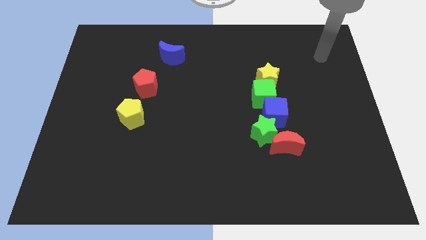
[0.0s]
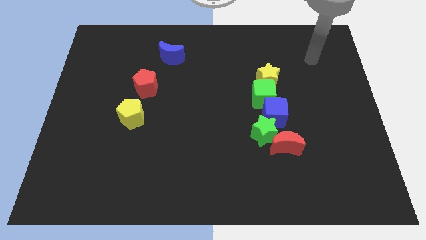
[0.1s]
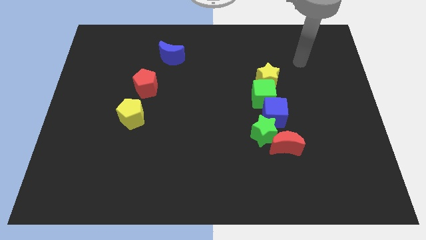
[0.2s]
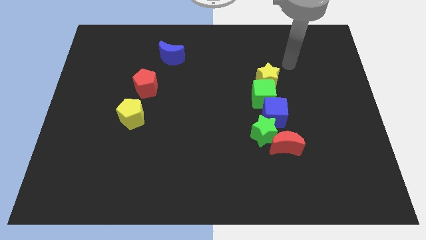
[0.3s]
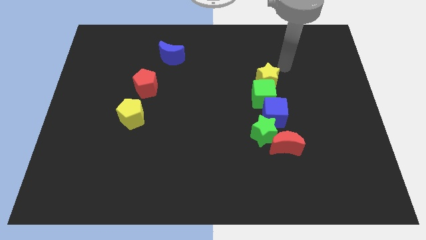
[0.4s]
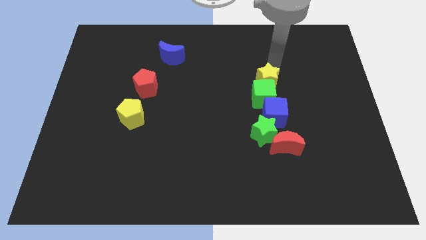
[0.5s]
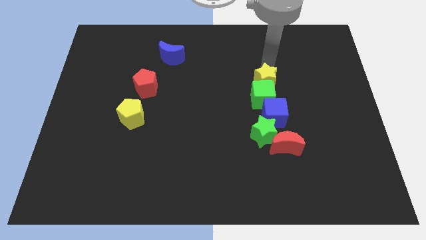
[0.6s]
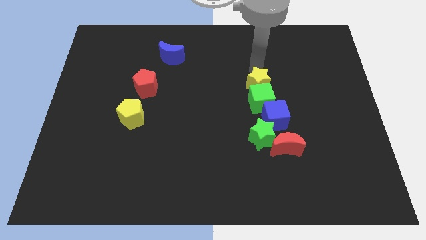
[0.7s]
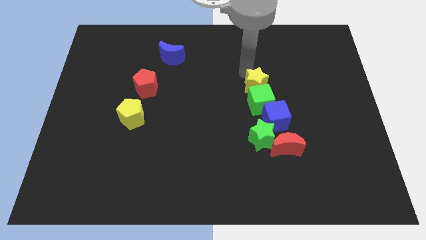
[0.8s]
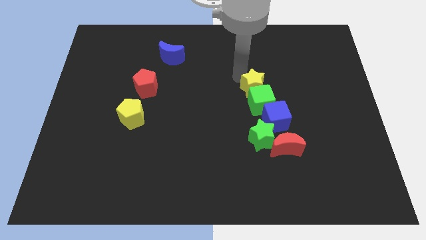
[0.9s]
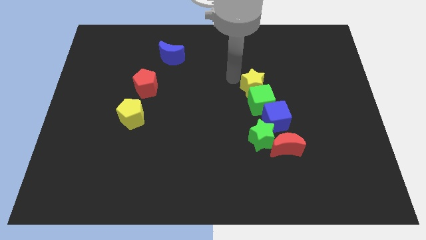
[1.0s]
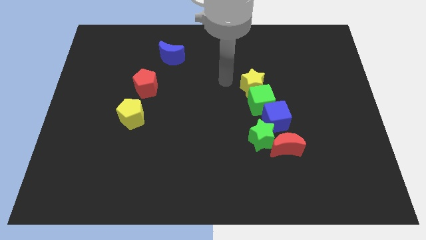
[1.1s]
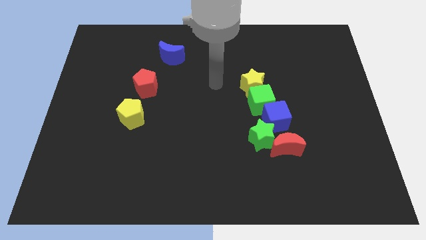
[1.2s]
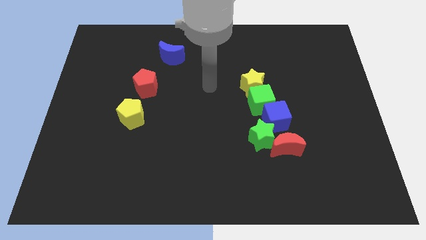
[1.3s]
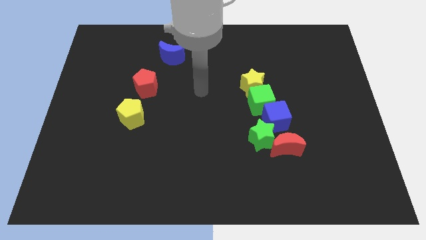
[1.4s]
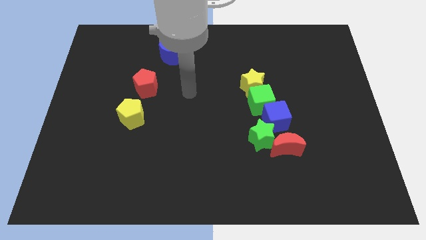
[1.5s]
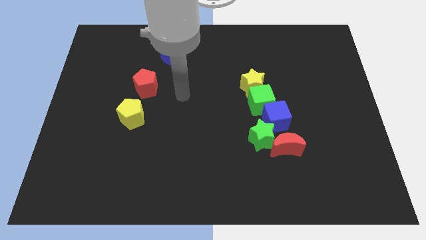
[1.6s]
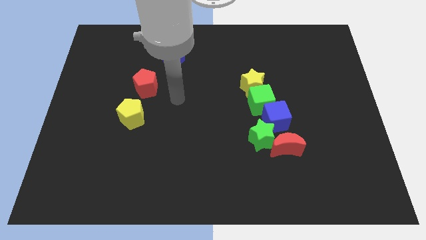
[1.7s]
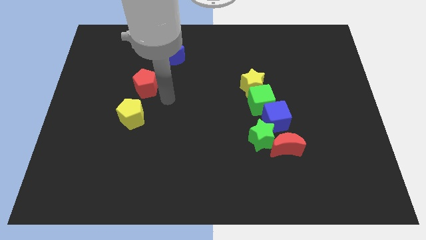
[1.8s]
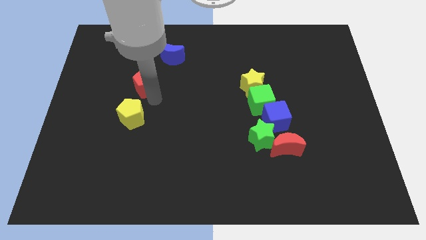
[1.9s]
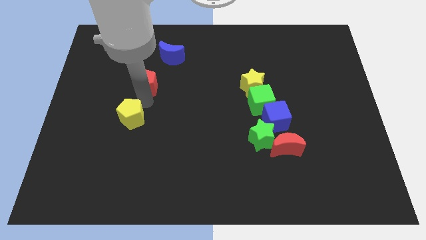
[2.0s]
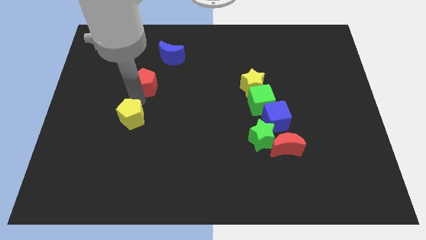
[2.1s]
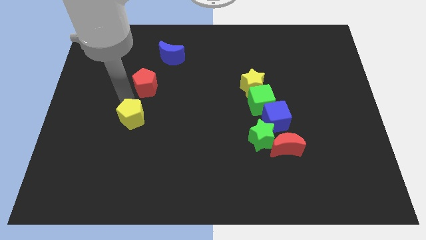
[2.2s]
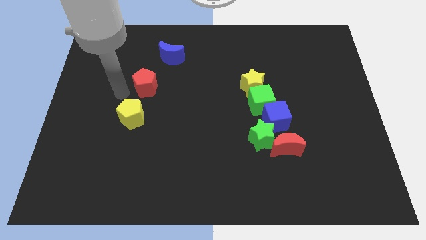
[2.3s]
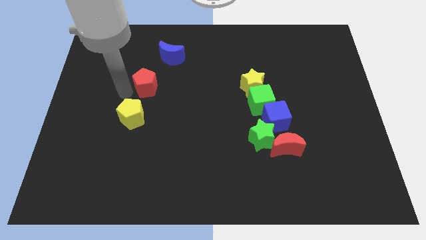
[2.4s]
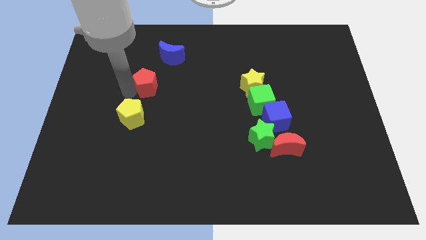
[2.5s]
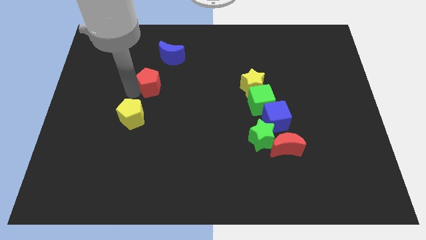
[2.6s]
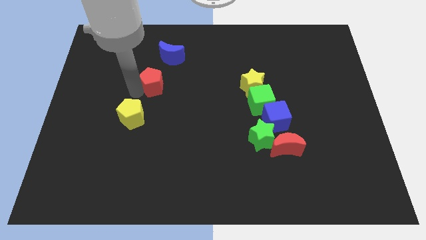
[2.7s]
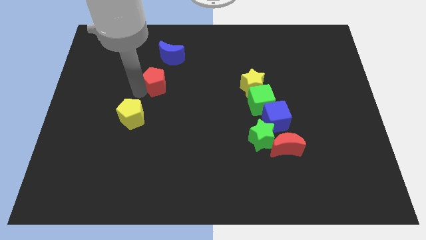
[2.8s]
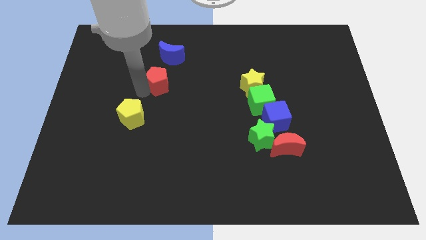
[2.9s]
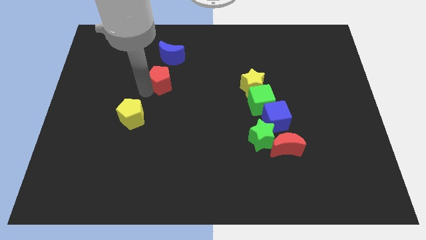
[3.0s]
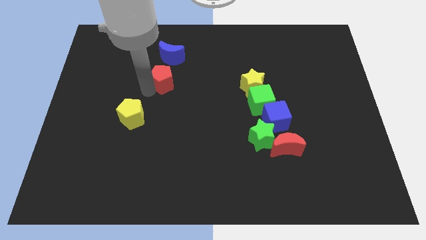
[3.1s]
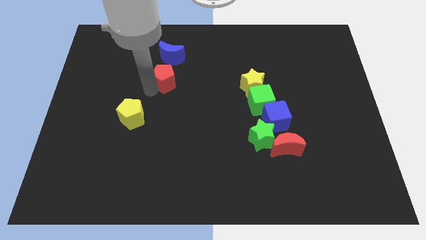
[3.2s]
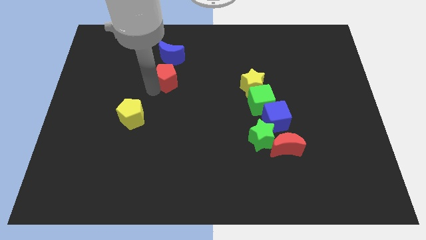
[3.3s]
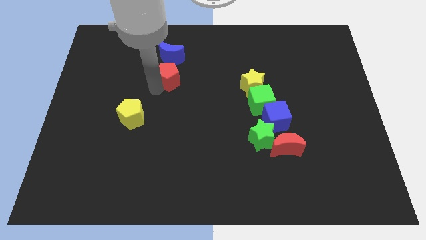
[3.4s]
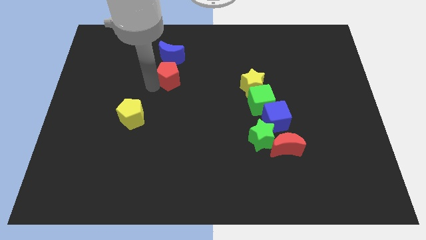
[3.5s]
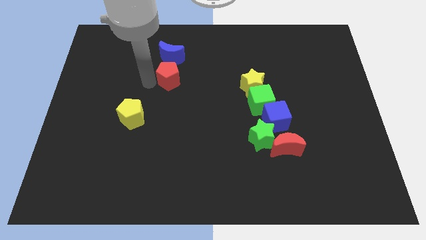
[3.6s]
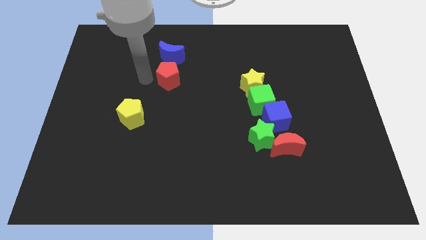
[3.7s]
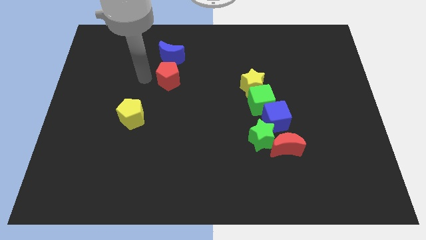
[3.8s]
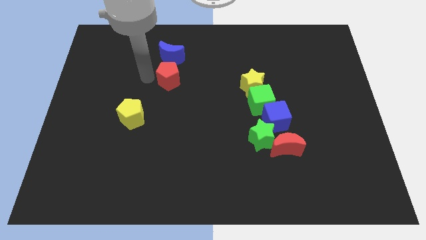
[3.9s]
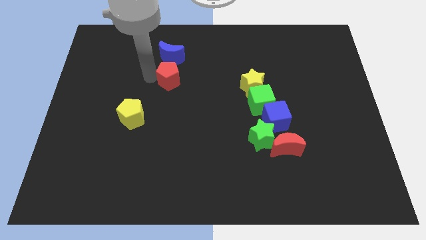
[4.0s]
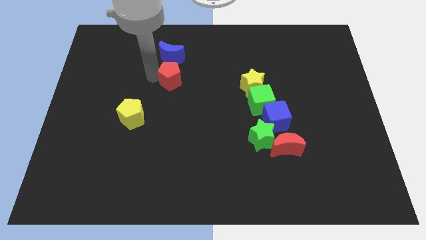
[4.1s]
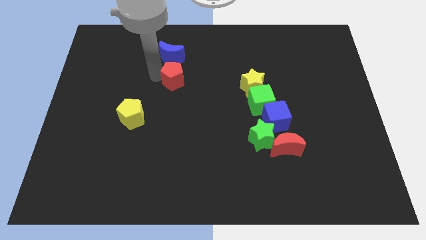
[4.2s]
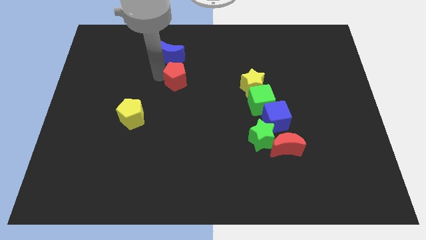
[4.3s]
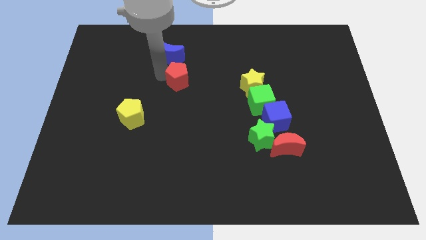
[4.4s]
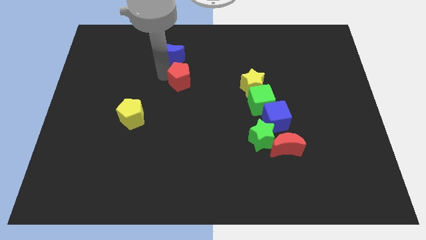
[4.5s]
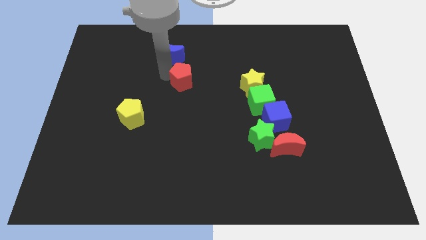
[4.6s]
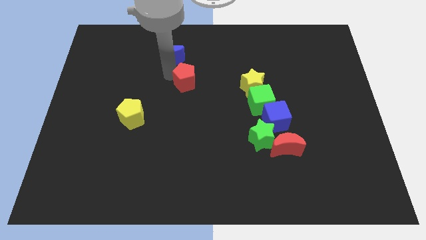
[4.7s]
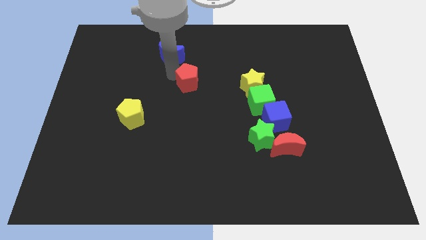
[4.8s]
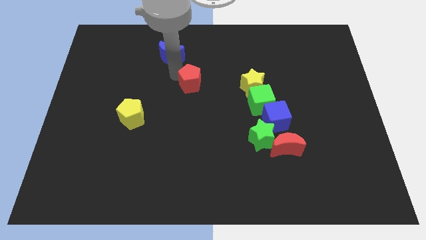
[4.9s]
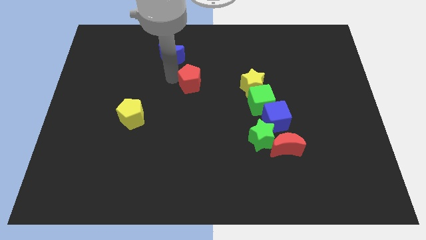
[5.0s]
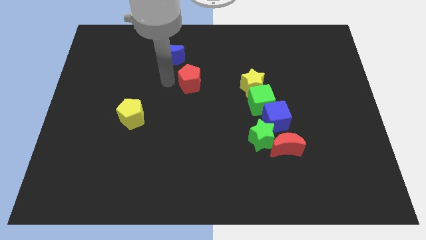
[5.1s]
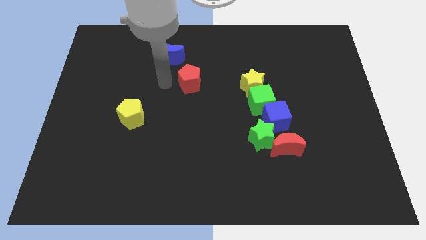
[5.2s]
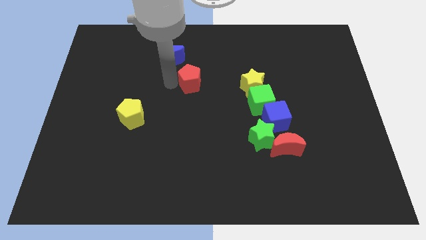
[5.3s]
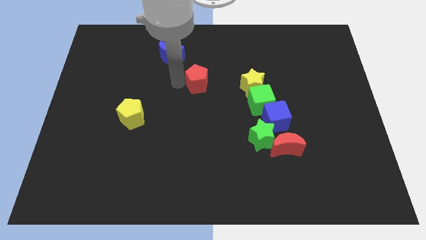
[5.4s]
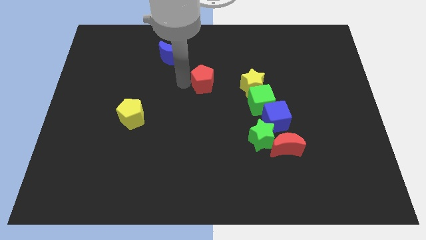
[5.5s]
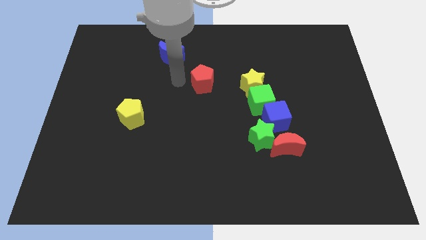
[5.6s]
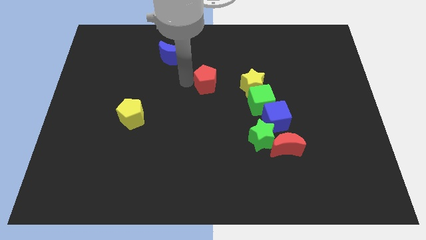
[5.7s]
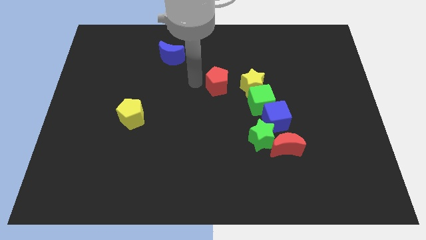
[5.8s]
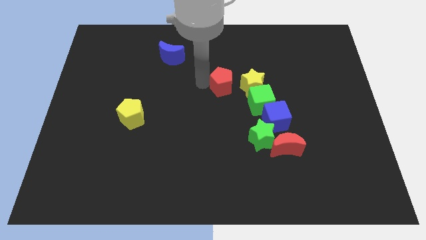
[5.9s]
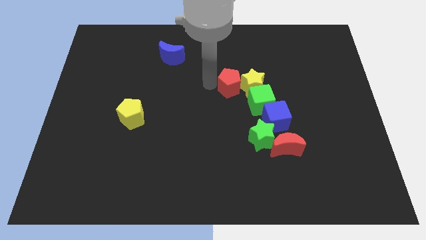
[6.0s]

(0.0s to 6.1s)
put the red pentagon to the yellow star

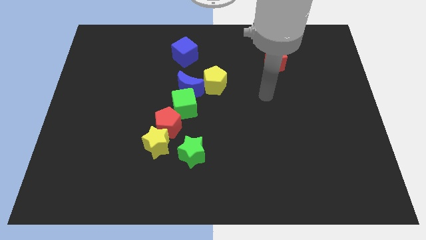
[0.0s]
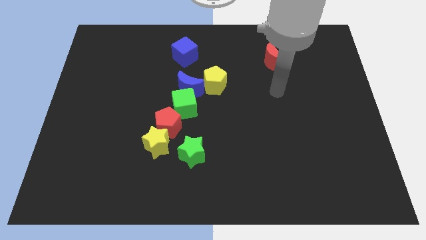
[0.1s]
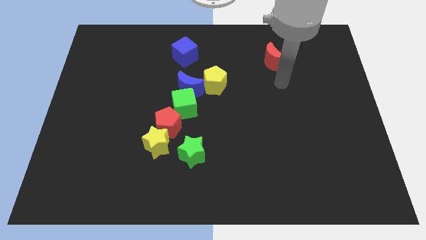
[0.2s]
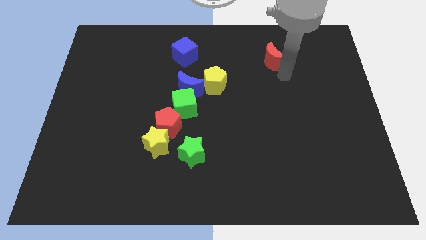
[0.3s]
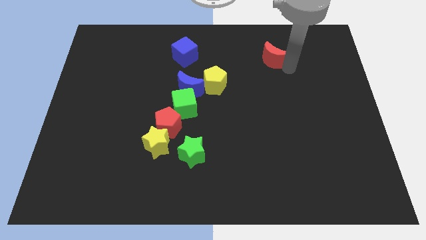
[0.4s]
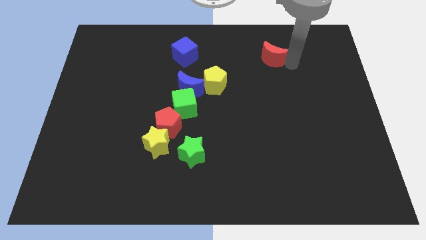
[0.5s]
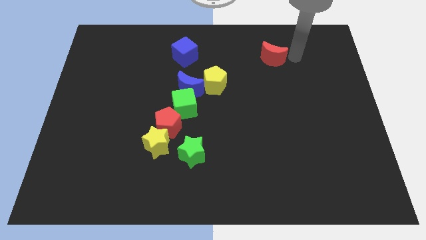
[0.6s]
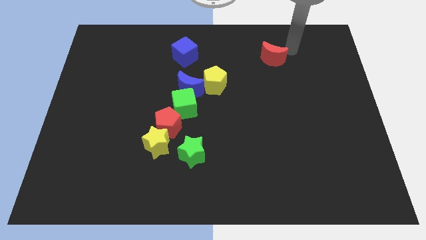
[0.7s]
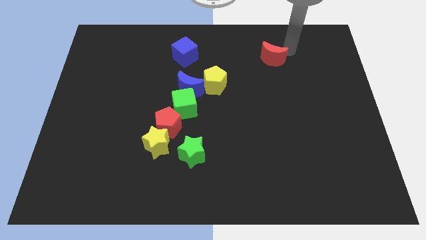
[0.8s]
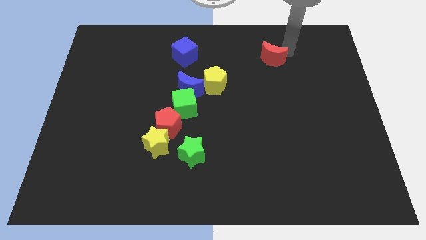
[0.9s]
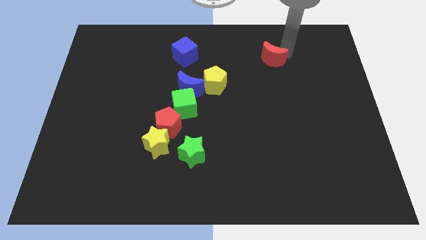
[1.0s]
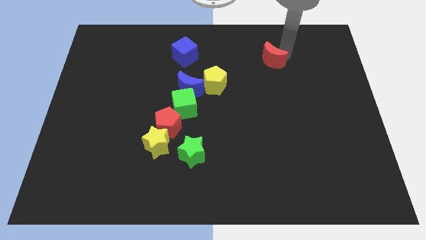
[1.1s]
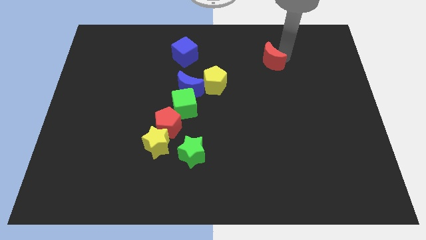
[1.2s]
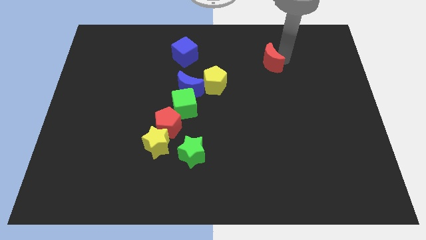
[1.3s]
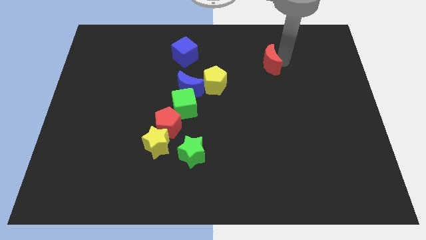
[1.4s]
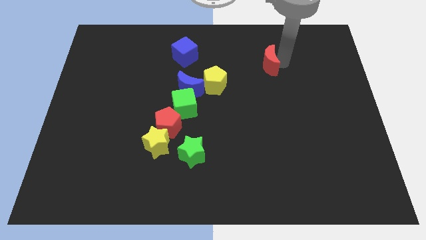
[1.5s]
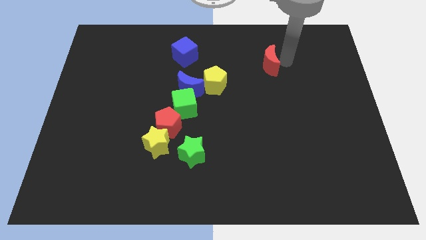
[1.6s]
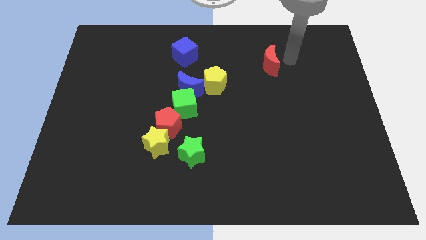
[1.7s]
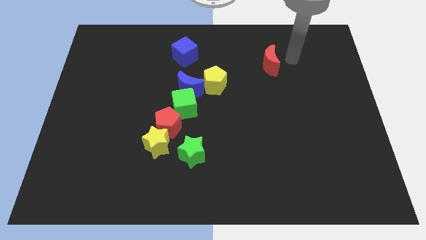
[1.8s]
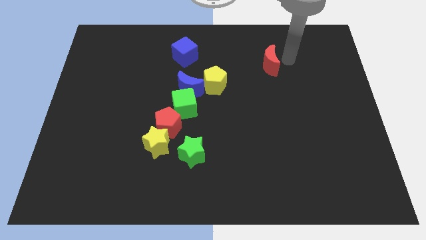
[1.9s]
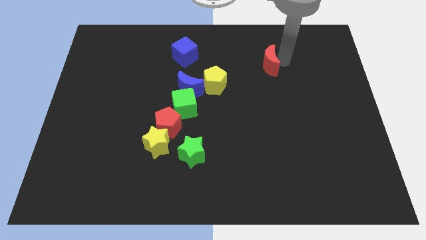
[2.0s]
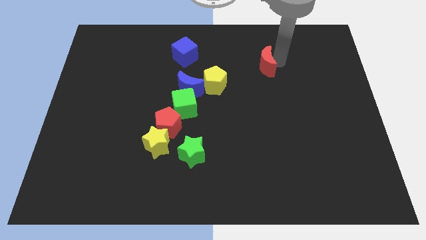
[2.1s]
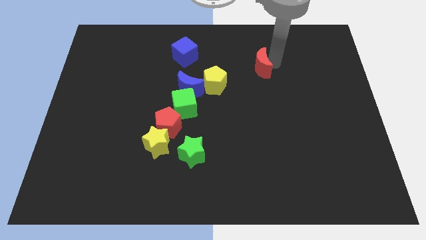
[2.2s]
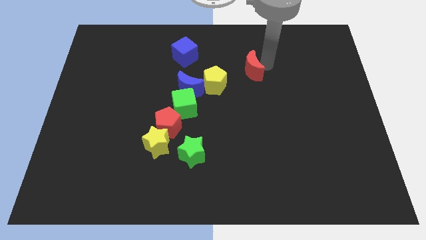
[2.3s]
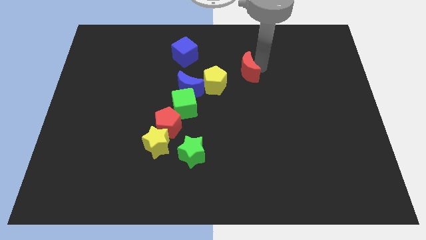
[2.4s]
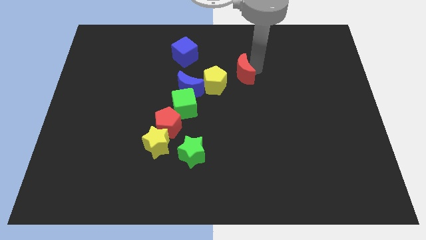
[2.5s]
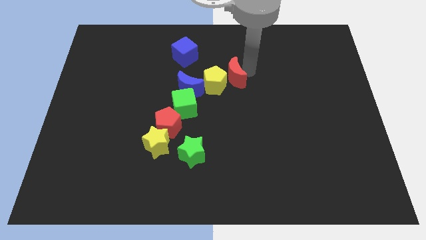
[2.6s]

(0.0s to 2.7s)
slide the red moon next to the yellow pentagon
